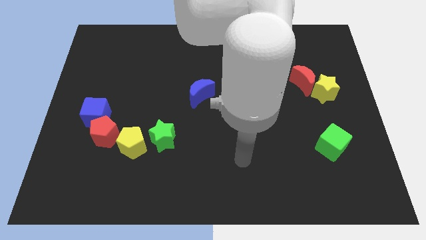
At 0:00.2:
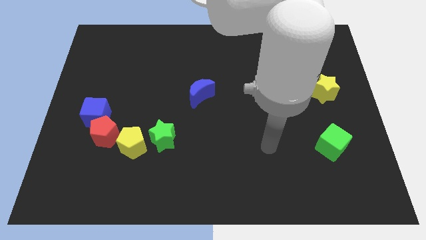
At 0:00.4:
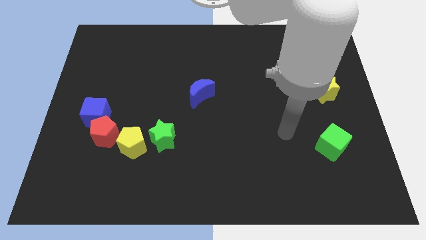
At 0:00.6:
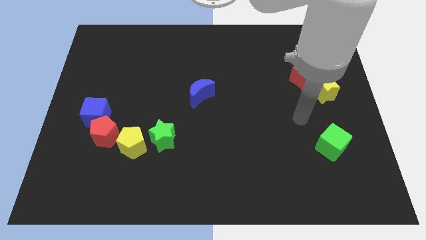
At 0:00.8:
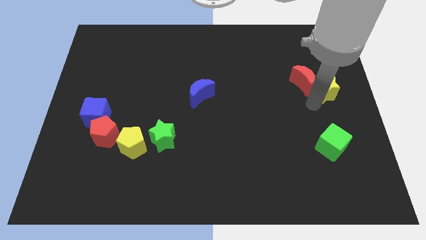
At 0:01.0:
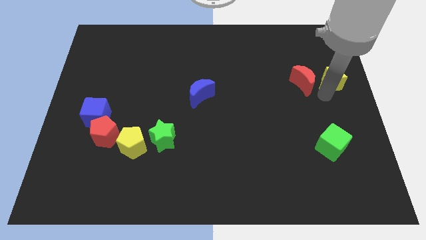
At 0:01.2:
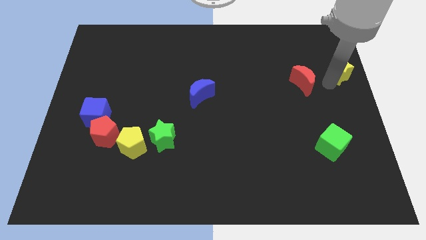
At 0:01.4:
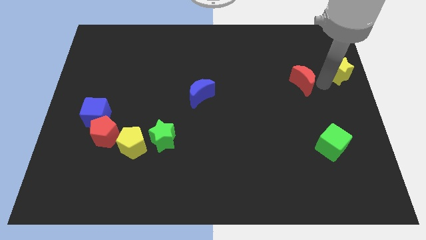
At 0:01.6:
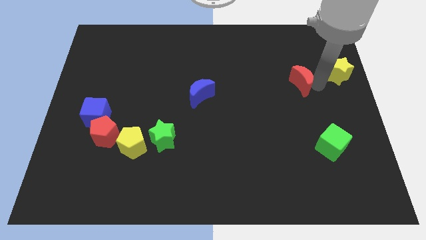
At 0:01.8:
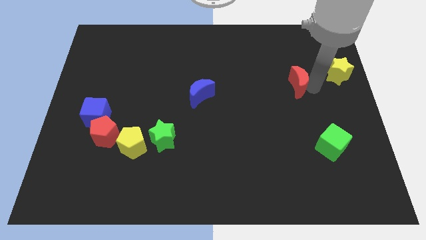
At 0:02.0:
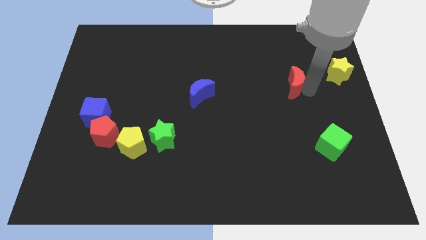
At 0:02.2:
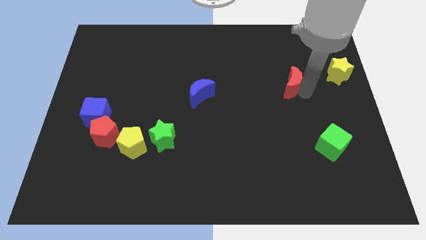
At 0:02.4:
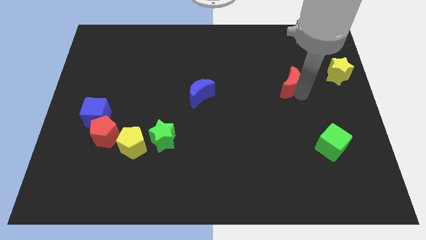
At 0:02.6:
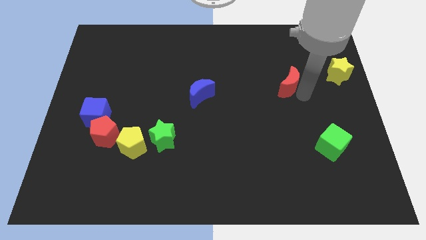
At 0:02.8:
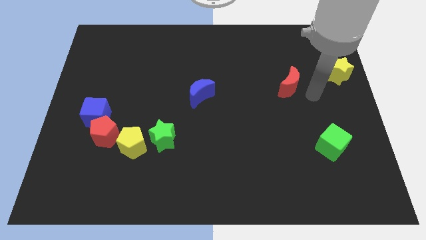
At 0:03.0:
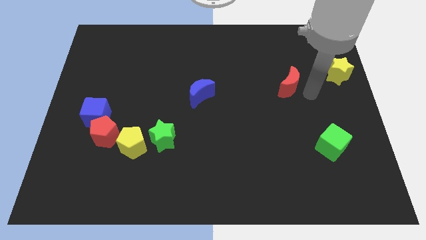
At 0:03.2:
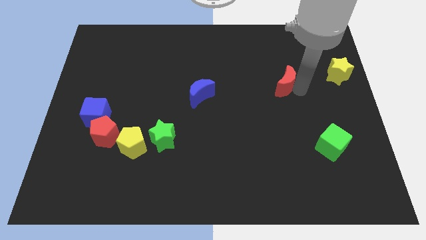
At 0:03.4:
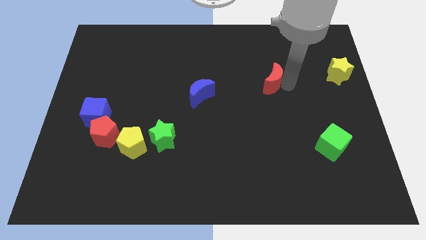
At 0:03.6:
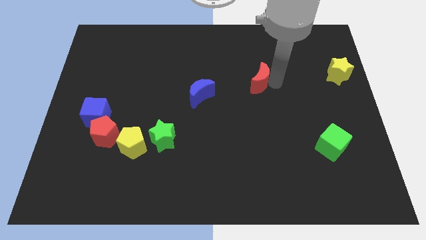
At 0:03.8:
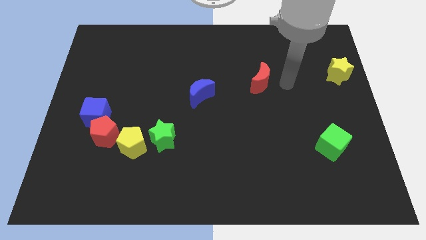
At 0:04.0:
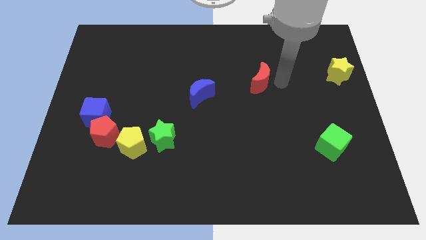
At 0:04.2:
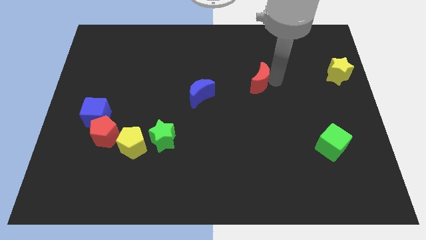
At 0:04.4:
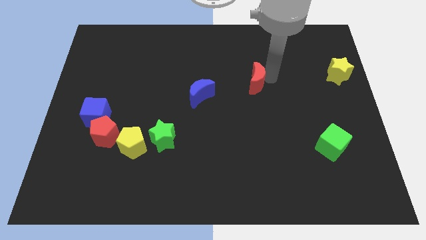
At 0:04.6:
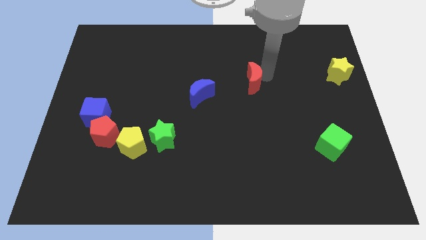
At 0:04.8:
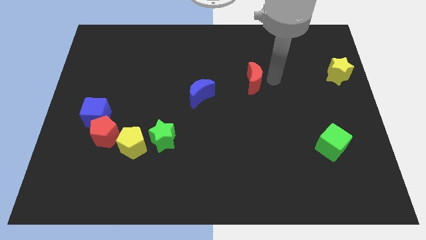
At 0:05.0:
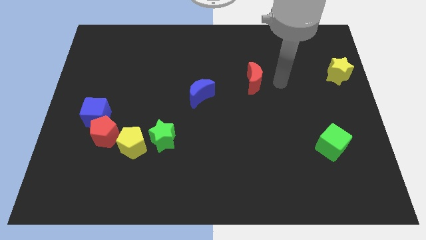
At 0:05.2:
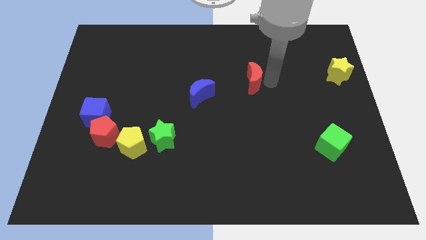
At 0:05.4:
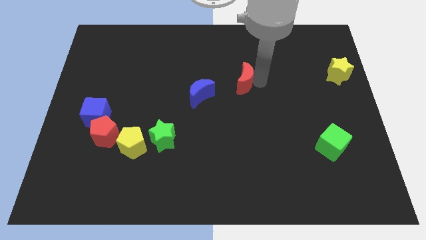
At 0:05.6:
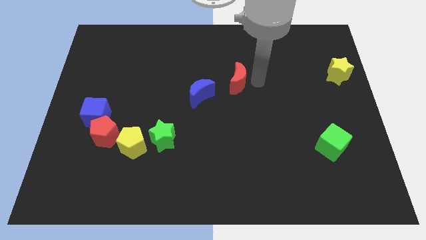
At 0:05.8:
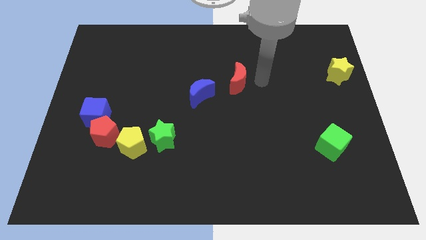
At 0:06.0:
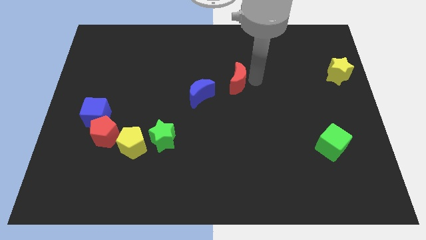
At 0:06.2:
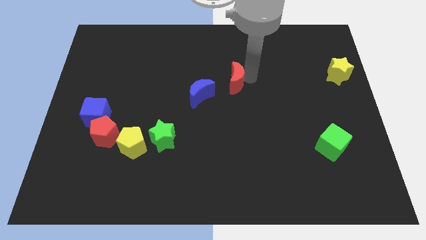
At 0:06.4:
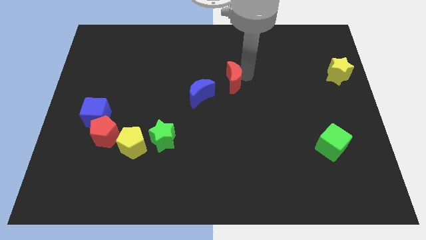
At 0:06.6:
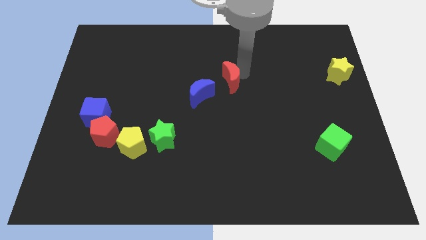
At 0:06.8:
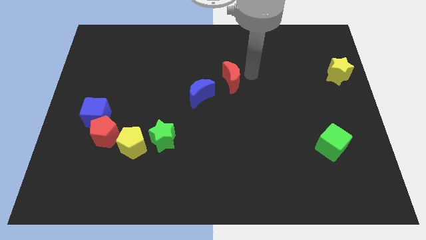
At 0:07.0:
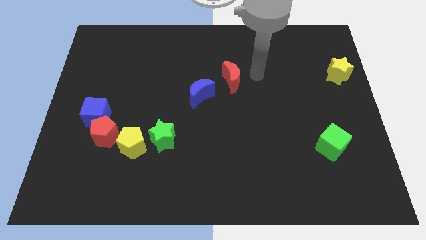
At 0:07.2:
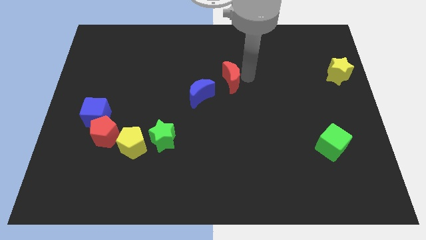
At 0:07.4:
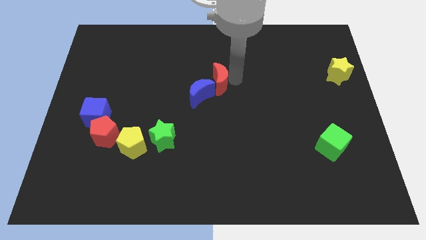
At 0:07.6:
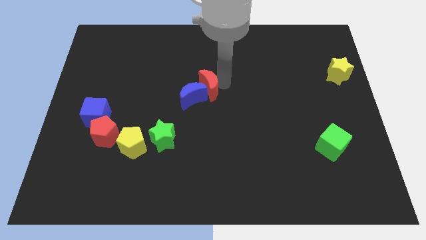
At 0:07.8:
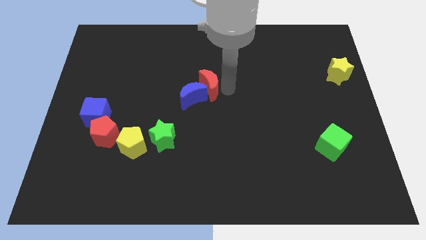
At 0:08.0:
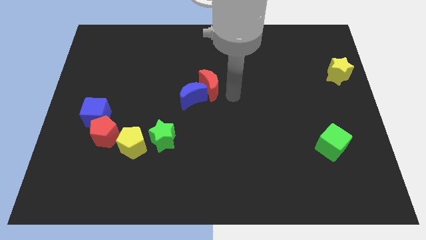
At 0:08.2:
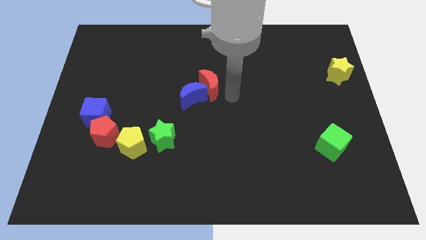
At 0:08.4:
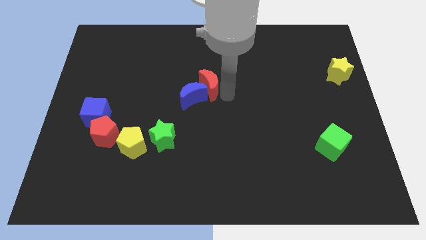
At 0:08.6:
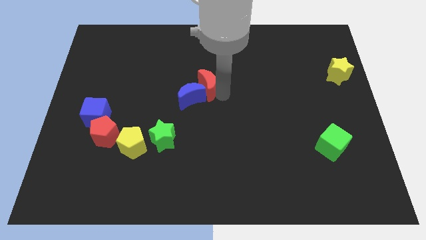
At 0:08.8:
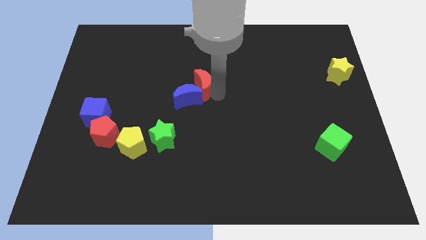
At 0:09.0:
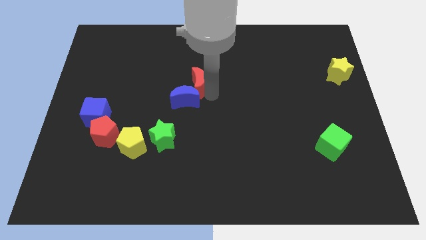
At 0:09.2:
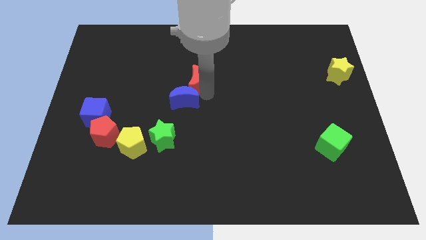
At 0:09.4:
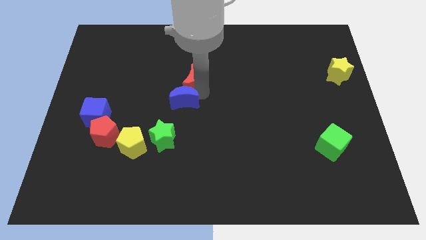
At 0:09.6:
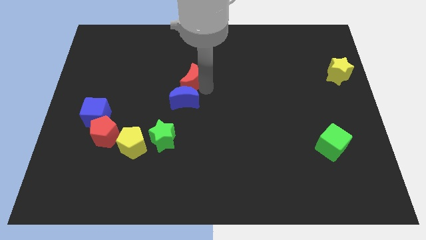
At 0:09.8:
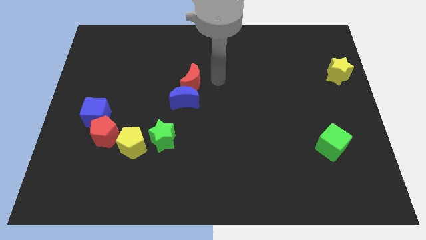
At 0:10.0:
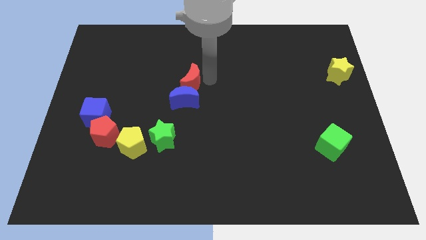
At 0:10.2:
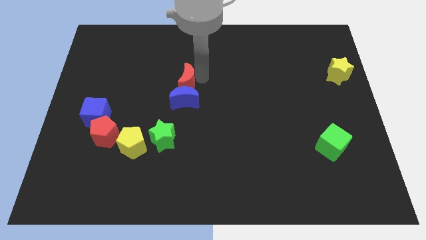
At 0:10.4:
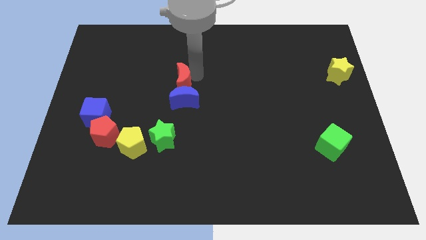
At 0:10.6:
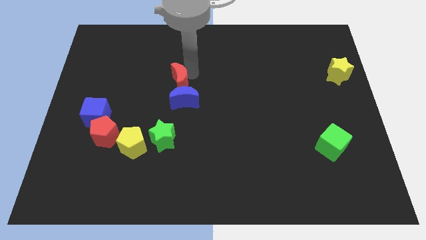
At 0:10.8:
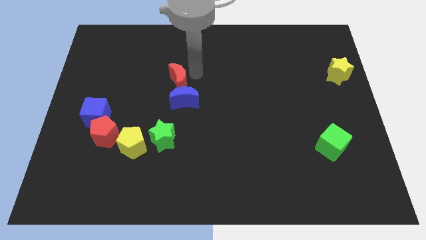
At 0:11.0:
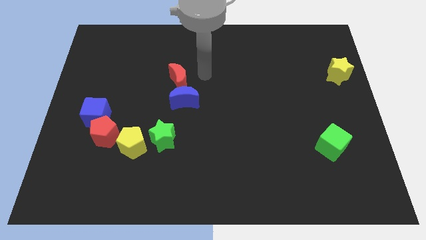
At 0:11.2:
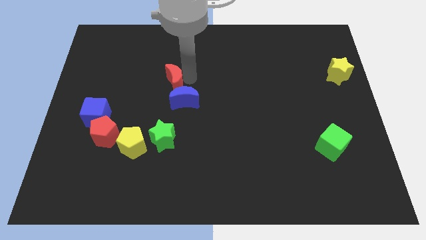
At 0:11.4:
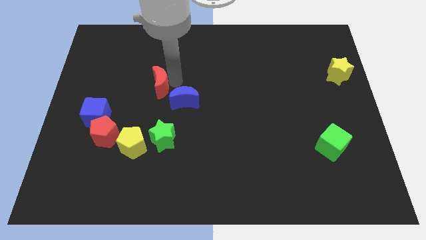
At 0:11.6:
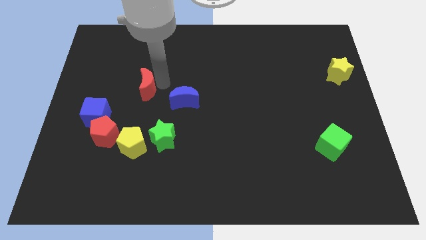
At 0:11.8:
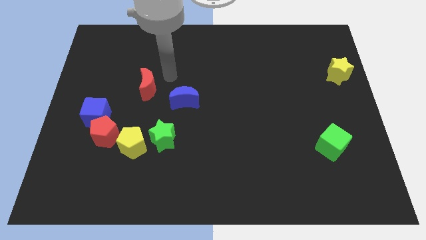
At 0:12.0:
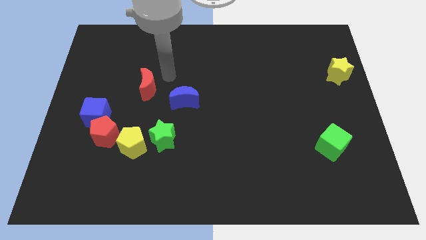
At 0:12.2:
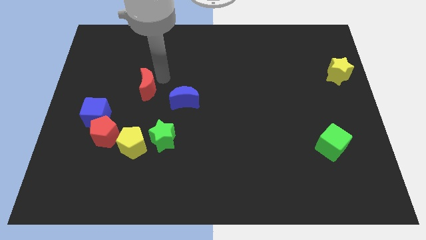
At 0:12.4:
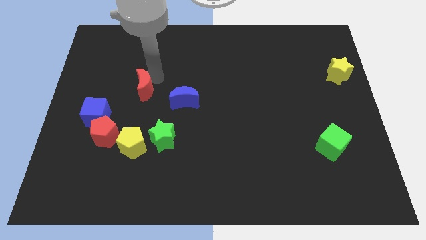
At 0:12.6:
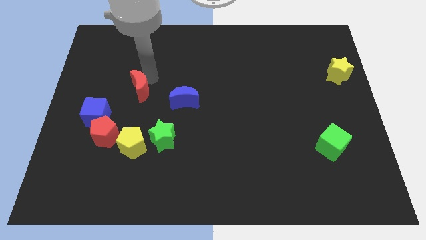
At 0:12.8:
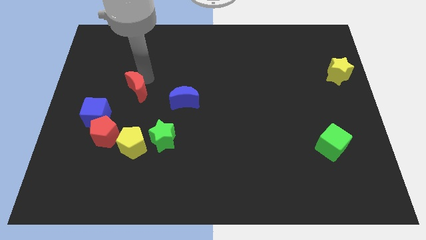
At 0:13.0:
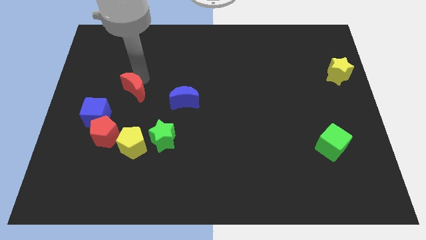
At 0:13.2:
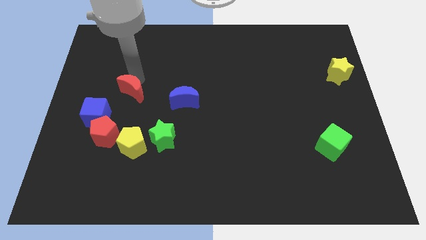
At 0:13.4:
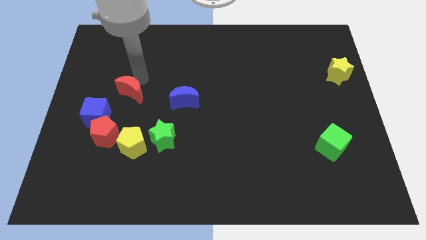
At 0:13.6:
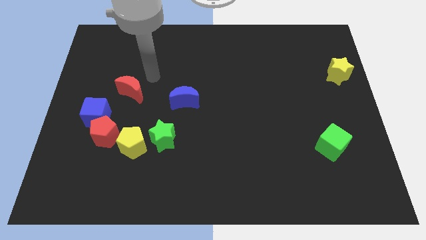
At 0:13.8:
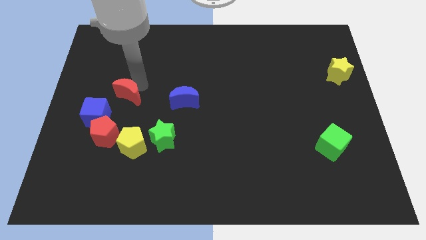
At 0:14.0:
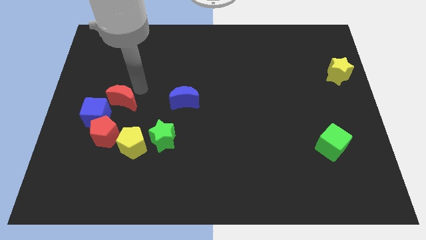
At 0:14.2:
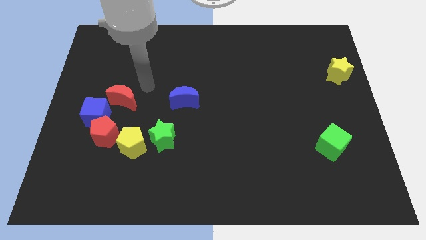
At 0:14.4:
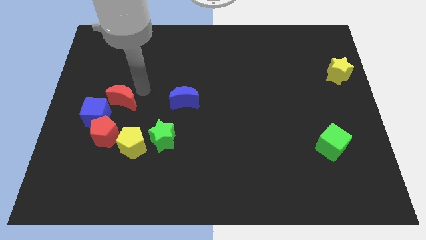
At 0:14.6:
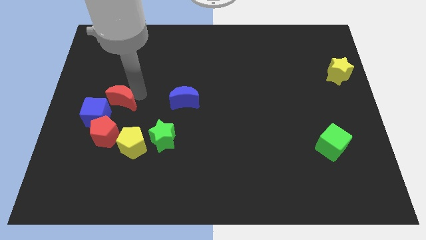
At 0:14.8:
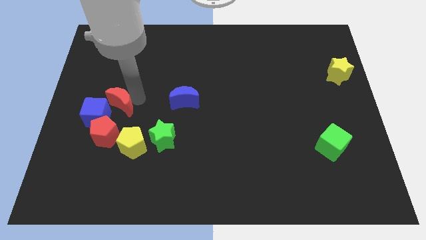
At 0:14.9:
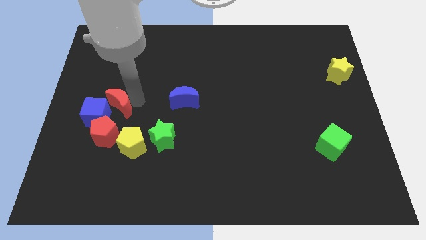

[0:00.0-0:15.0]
slide the red moon next to the blue cube
